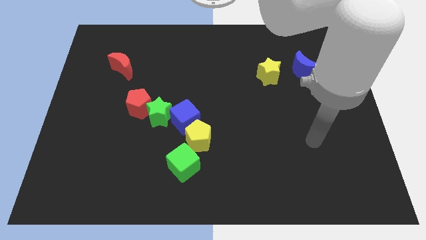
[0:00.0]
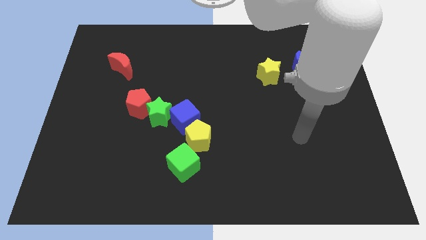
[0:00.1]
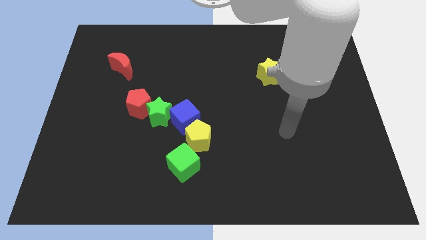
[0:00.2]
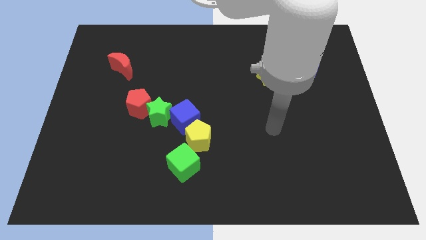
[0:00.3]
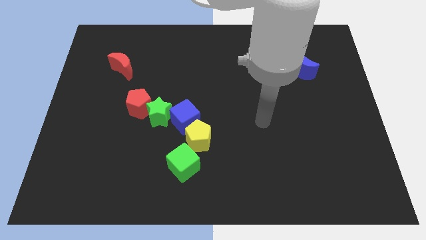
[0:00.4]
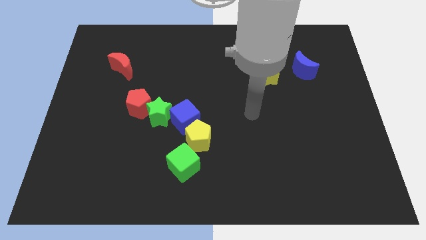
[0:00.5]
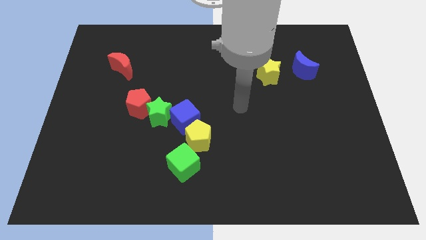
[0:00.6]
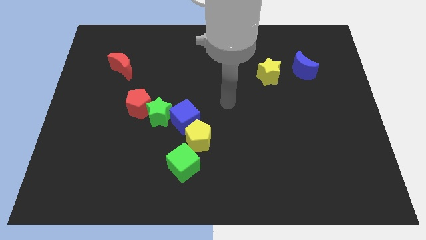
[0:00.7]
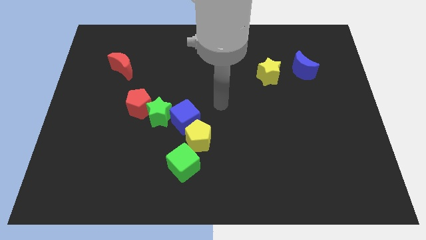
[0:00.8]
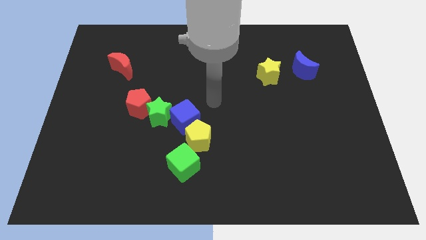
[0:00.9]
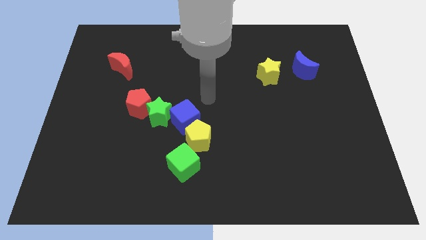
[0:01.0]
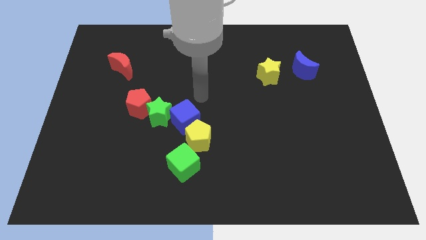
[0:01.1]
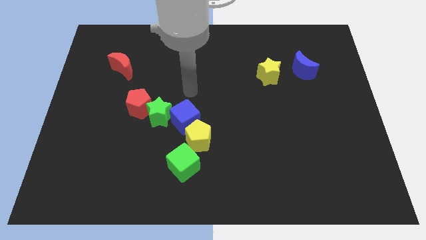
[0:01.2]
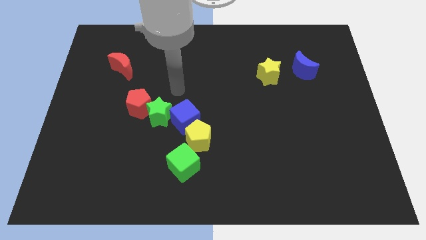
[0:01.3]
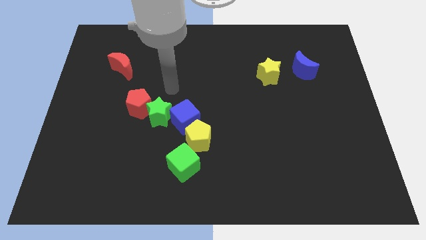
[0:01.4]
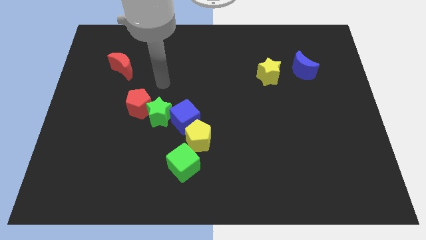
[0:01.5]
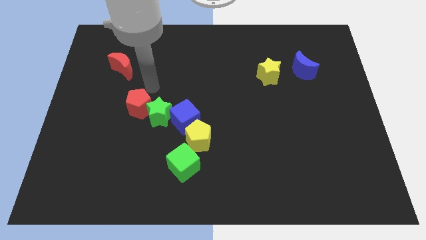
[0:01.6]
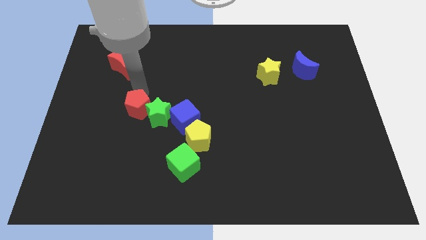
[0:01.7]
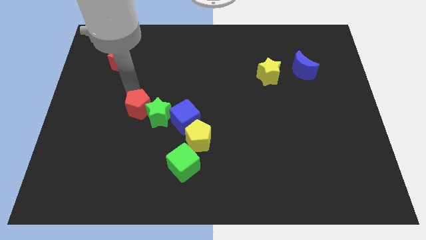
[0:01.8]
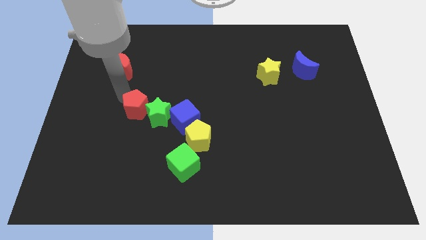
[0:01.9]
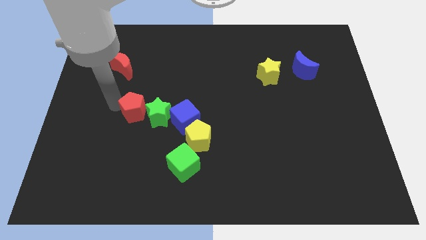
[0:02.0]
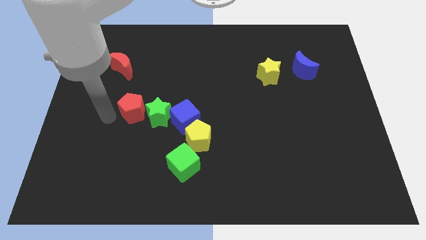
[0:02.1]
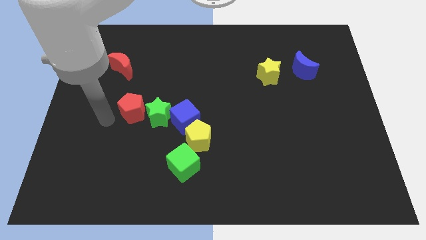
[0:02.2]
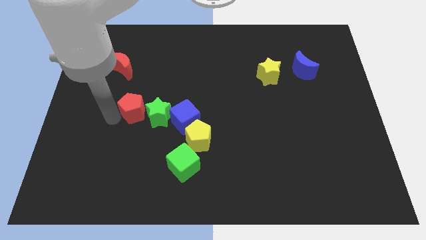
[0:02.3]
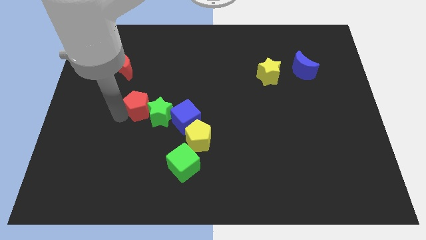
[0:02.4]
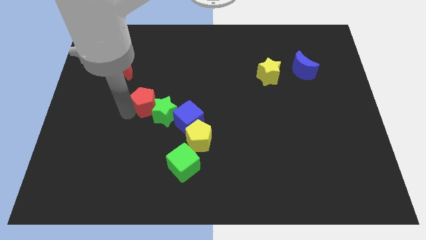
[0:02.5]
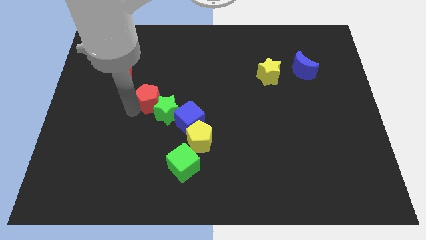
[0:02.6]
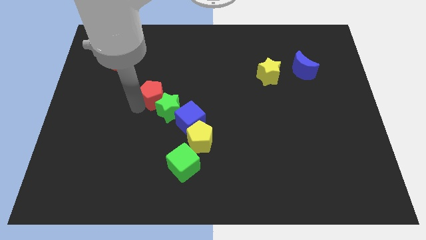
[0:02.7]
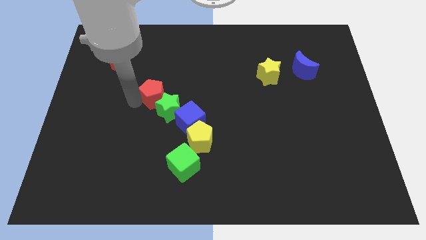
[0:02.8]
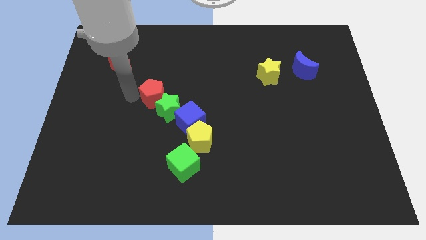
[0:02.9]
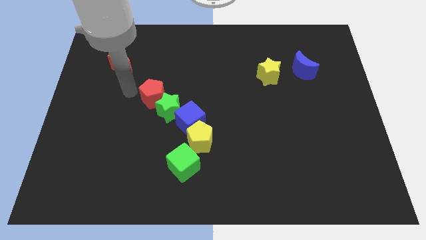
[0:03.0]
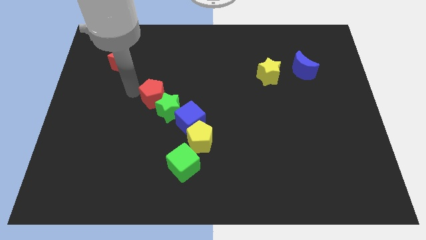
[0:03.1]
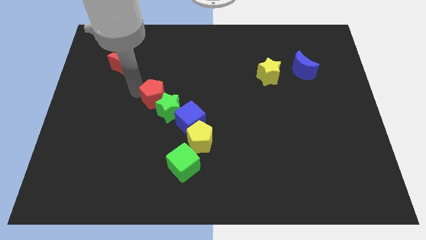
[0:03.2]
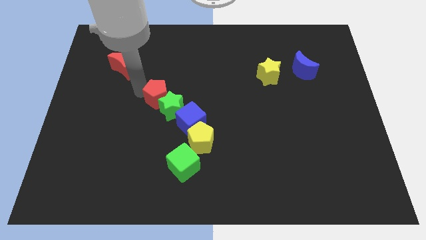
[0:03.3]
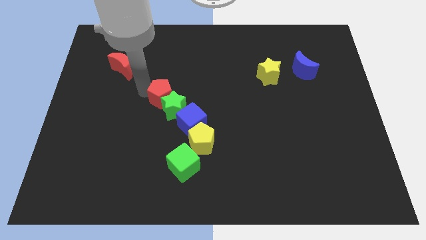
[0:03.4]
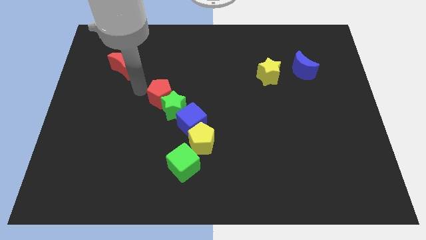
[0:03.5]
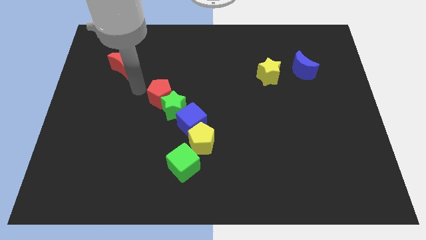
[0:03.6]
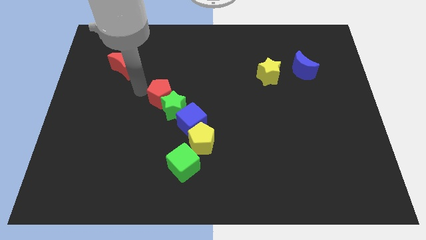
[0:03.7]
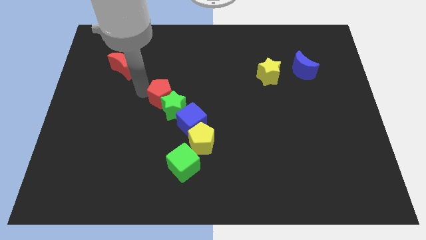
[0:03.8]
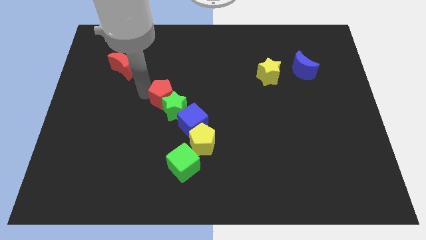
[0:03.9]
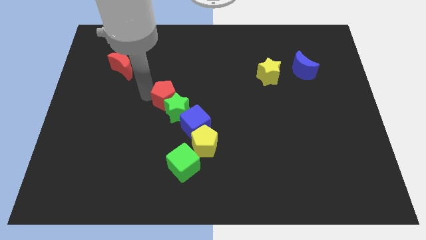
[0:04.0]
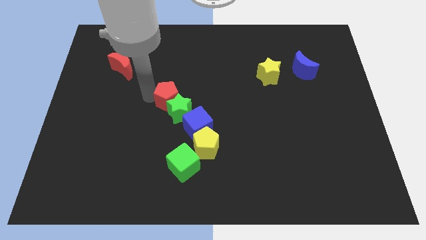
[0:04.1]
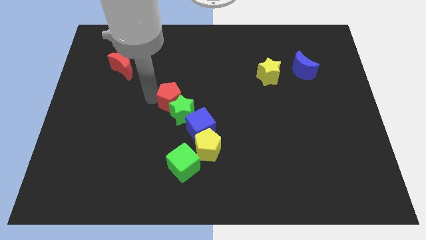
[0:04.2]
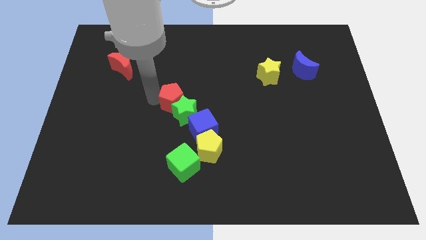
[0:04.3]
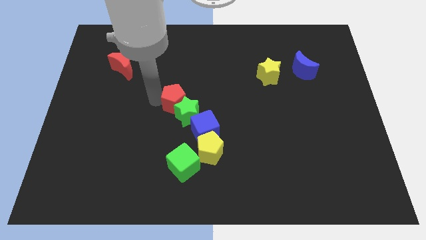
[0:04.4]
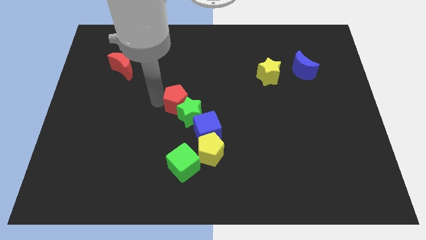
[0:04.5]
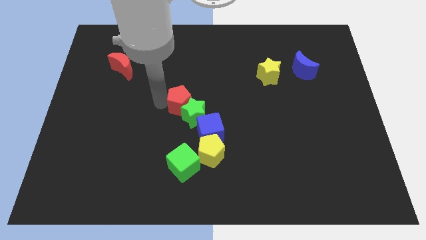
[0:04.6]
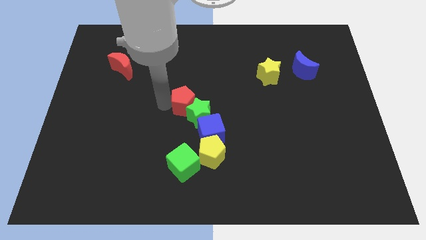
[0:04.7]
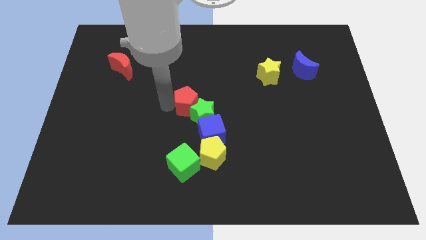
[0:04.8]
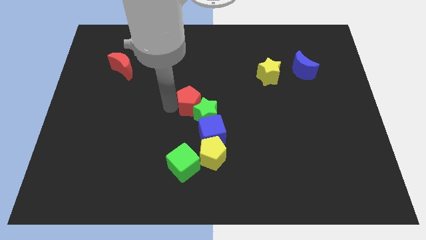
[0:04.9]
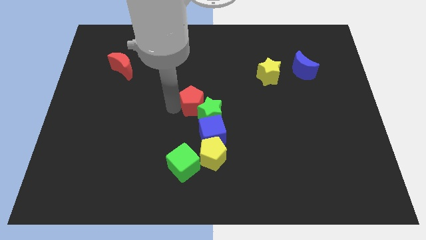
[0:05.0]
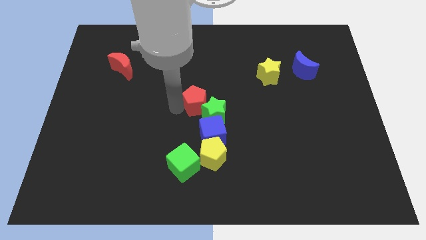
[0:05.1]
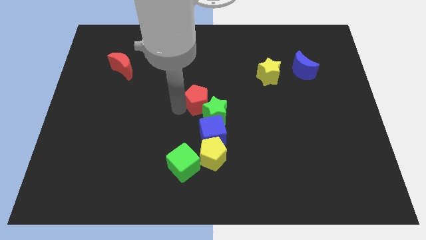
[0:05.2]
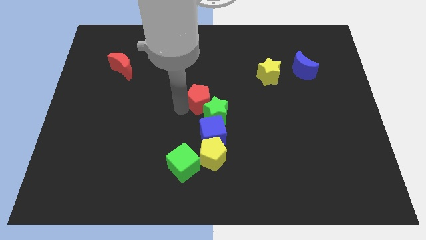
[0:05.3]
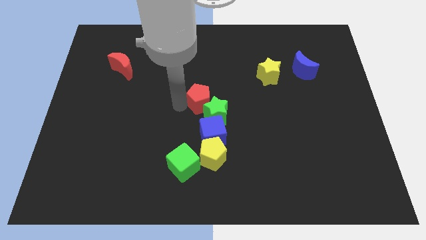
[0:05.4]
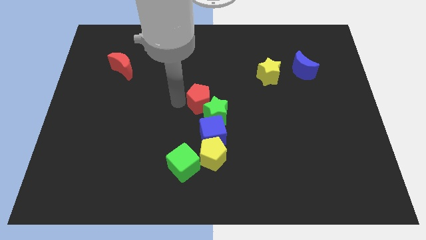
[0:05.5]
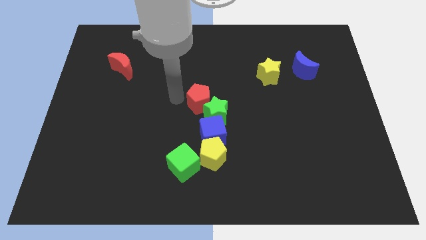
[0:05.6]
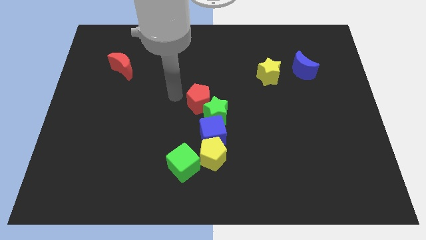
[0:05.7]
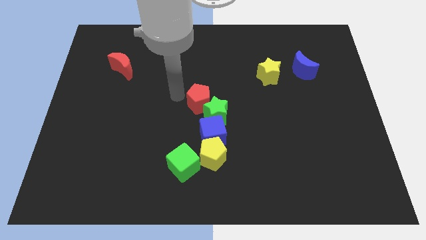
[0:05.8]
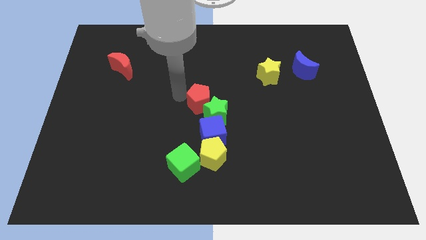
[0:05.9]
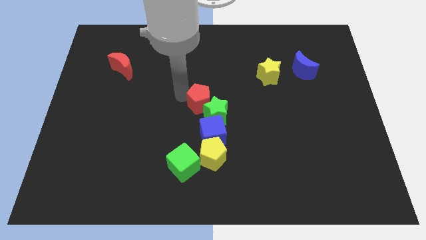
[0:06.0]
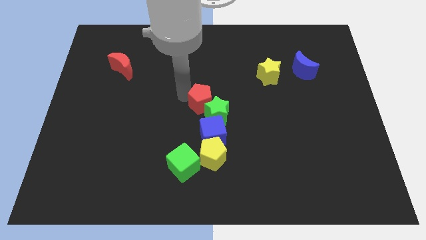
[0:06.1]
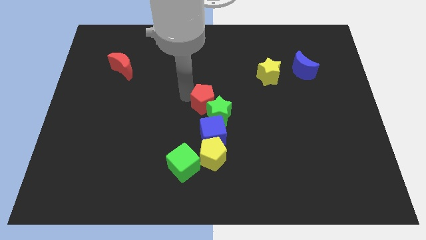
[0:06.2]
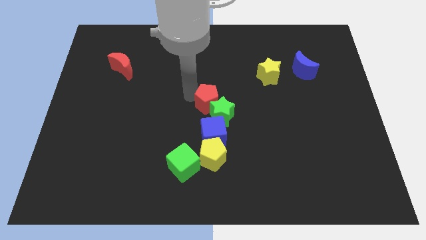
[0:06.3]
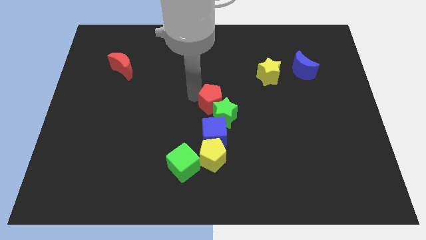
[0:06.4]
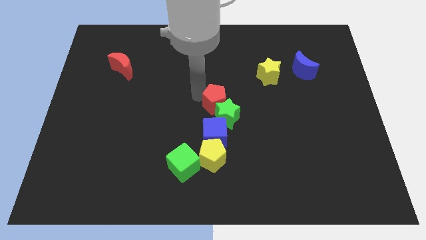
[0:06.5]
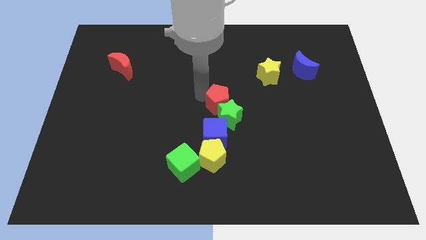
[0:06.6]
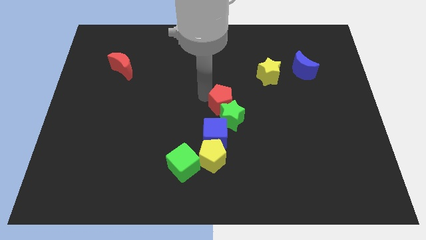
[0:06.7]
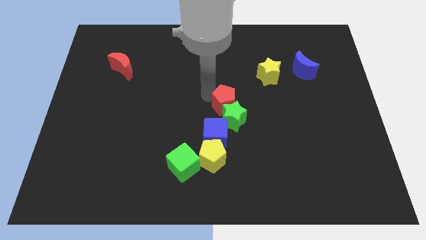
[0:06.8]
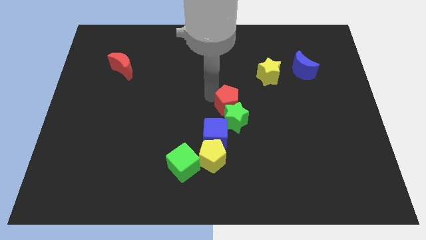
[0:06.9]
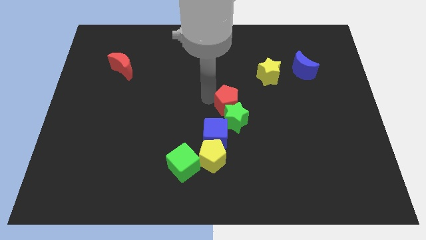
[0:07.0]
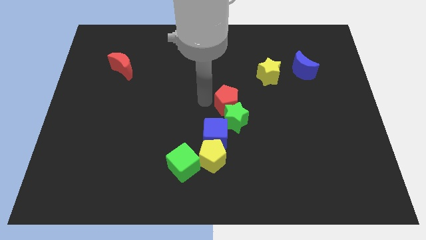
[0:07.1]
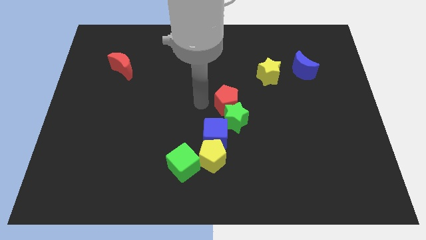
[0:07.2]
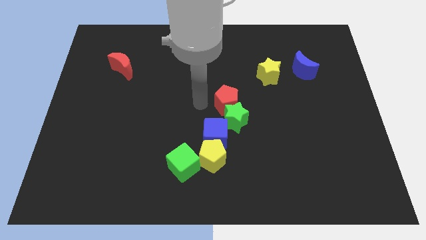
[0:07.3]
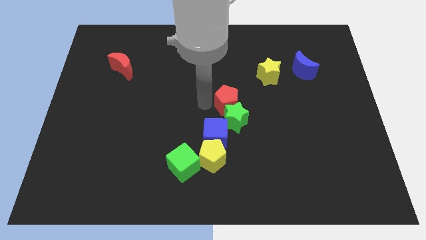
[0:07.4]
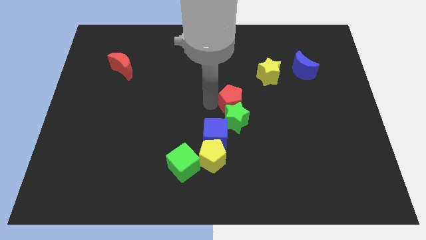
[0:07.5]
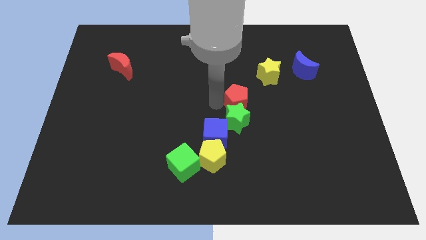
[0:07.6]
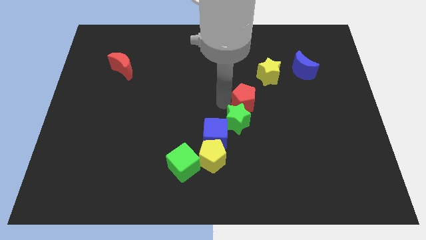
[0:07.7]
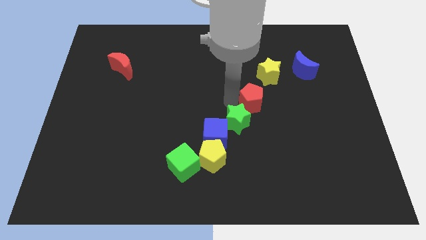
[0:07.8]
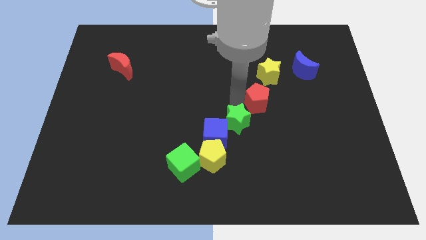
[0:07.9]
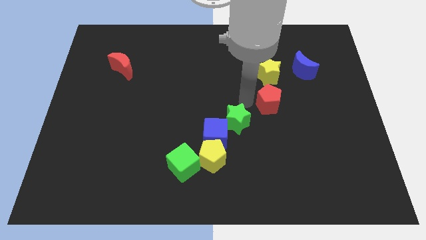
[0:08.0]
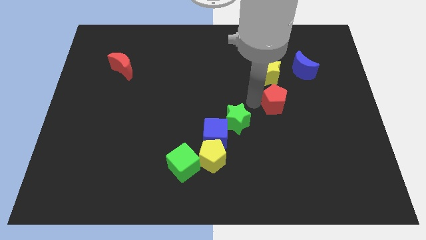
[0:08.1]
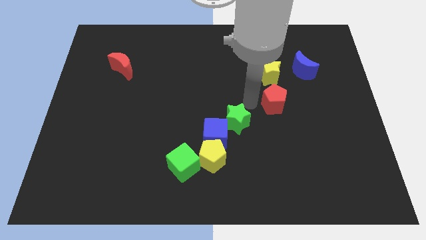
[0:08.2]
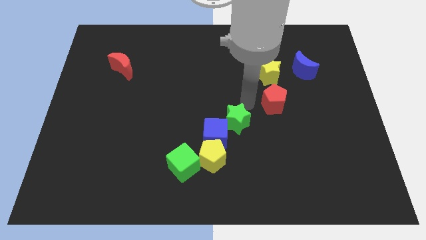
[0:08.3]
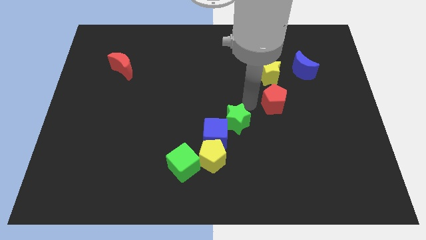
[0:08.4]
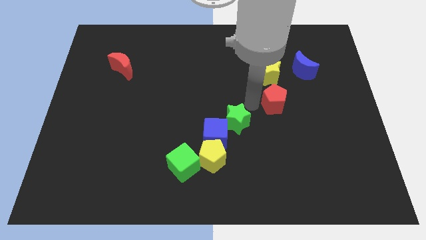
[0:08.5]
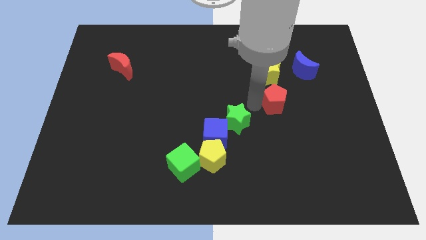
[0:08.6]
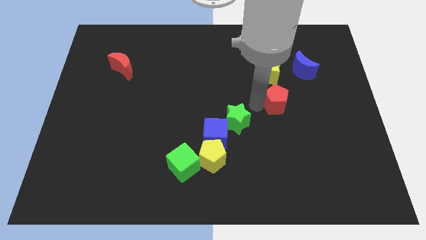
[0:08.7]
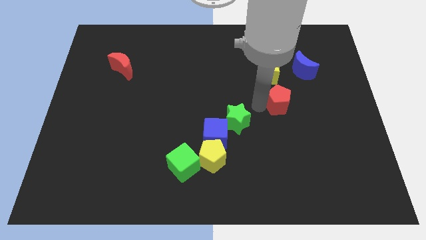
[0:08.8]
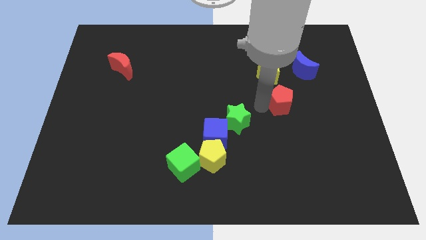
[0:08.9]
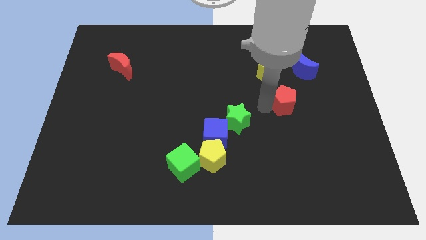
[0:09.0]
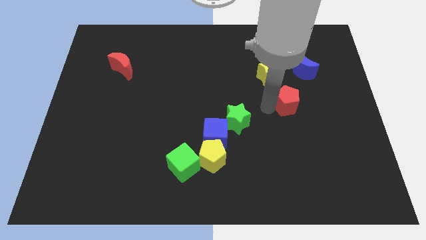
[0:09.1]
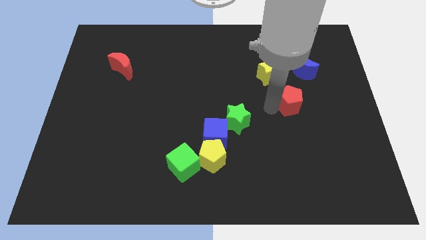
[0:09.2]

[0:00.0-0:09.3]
push the red pentagon to the bottom side of the blue moon
